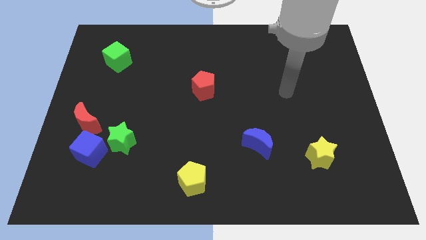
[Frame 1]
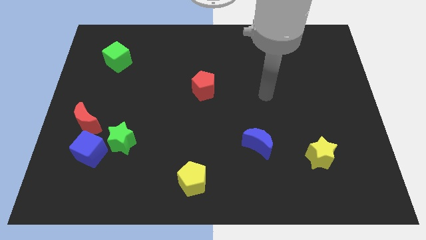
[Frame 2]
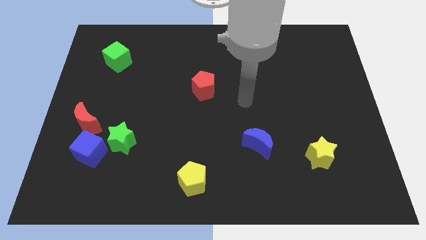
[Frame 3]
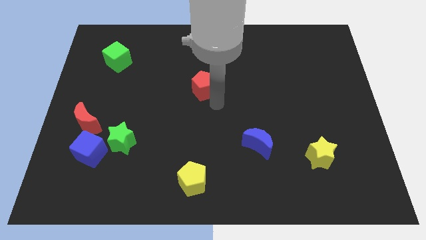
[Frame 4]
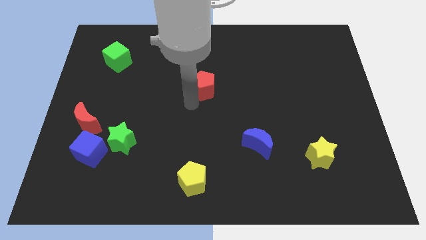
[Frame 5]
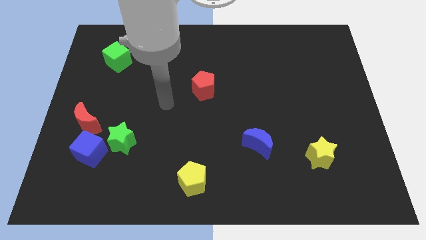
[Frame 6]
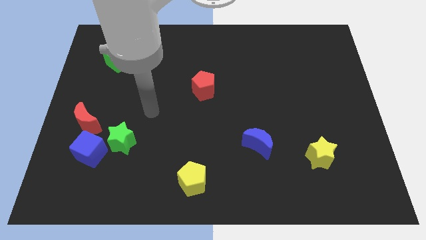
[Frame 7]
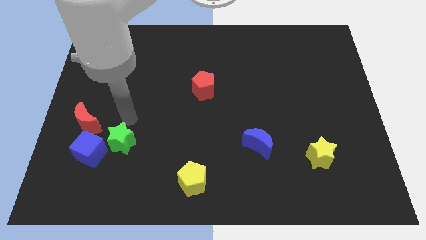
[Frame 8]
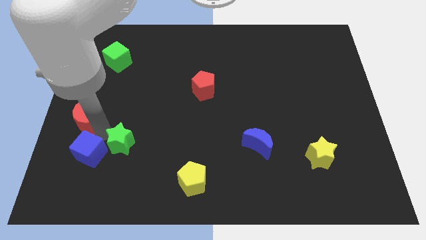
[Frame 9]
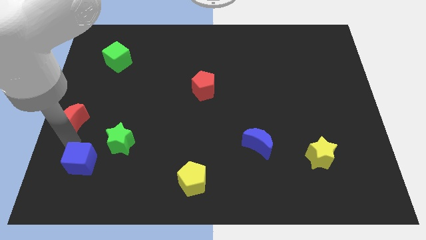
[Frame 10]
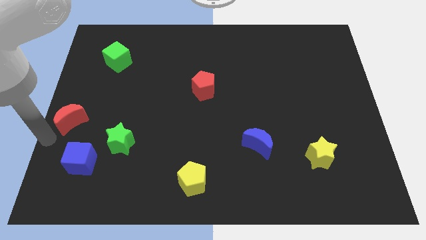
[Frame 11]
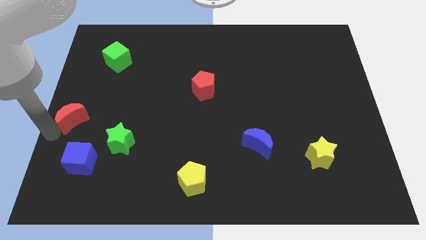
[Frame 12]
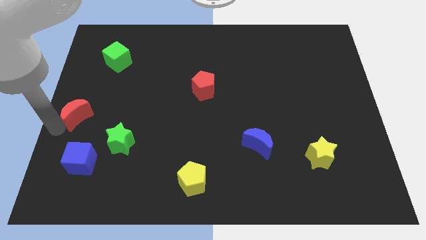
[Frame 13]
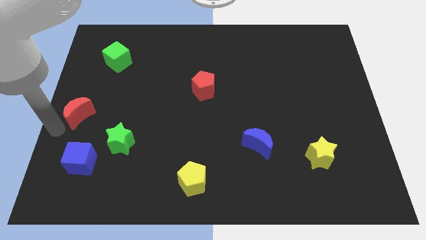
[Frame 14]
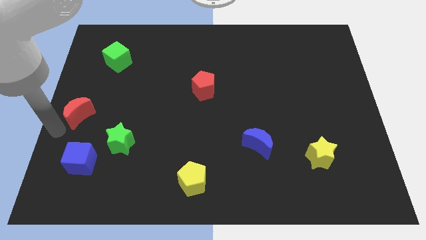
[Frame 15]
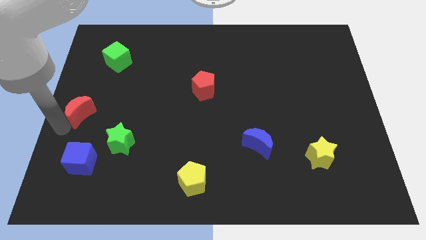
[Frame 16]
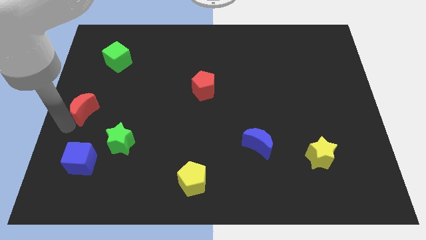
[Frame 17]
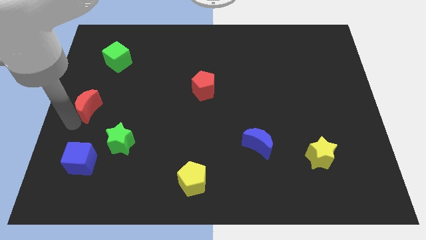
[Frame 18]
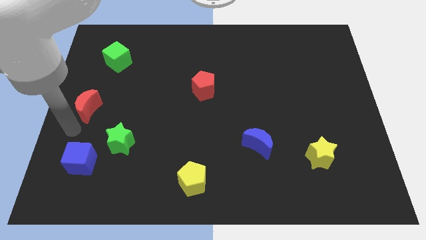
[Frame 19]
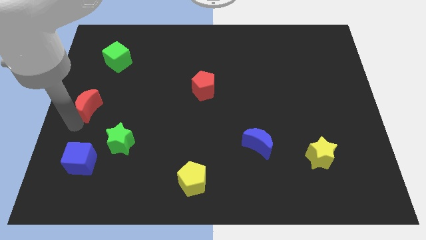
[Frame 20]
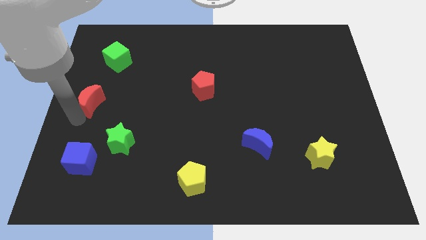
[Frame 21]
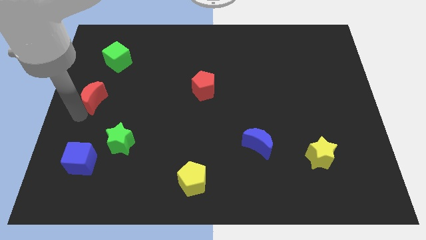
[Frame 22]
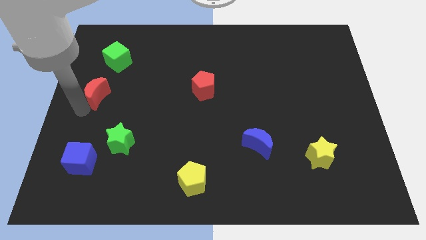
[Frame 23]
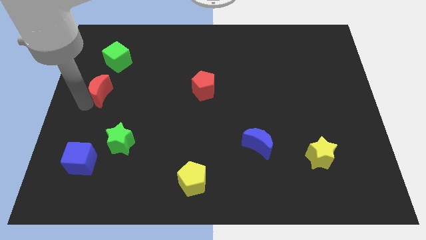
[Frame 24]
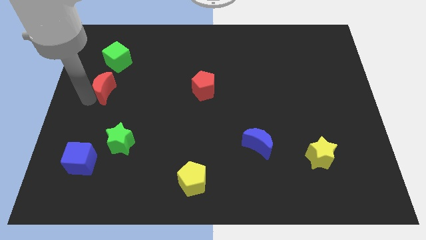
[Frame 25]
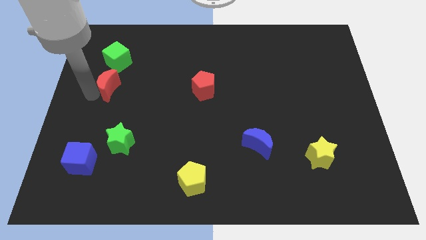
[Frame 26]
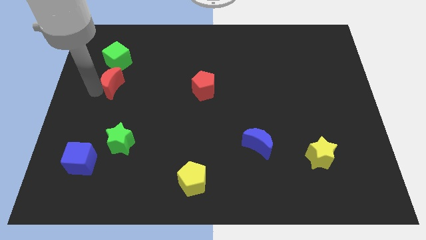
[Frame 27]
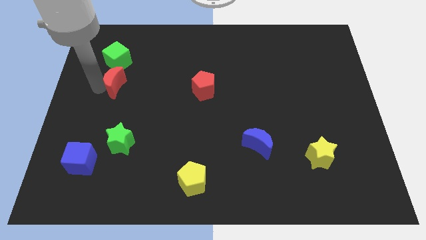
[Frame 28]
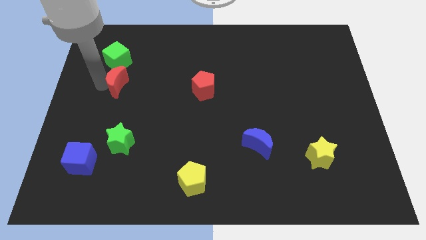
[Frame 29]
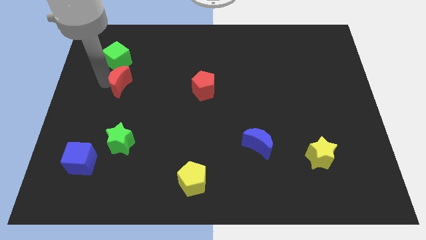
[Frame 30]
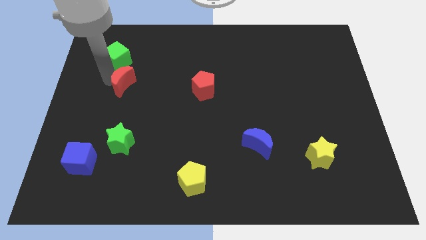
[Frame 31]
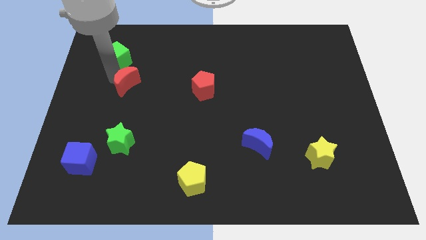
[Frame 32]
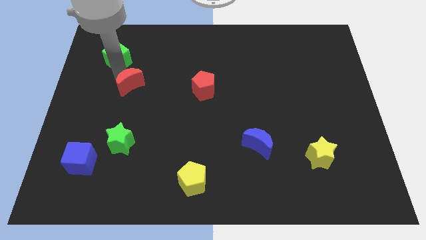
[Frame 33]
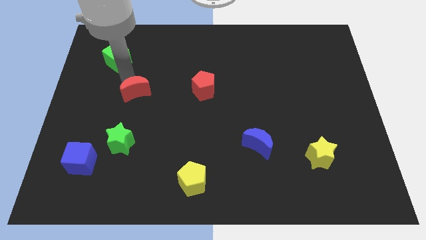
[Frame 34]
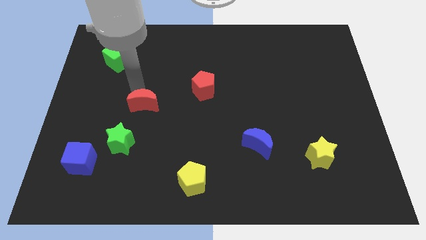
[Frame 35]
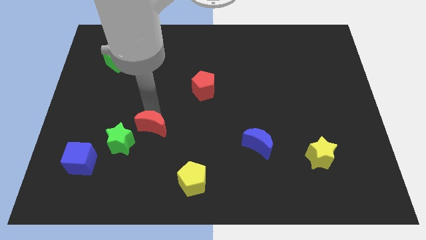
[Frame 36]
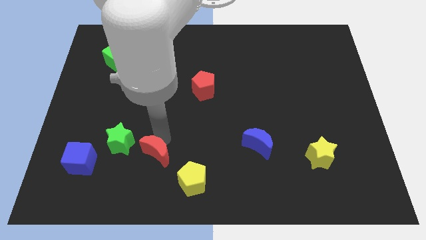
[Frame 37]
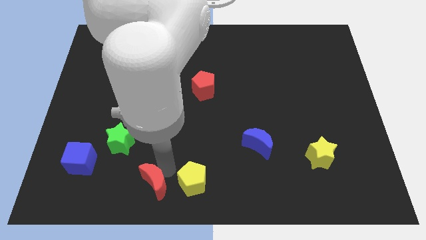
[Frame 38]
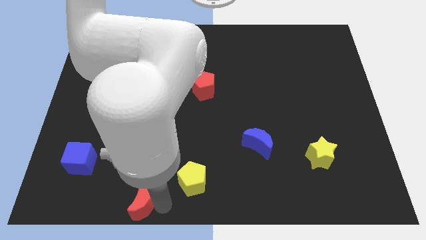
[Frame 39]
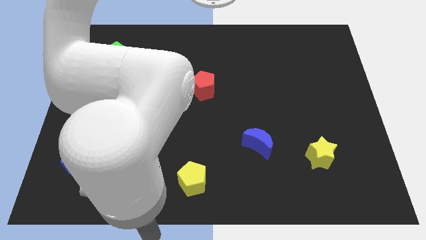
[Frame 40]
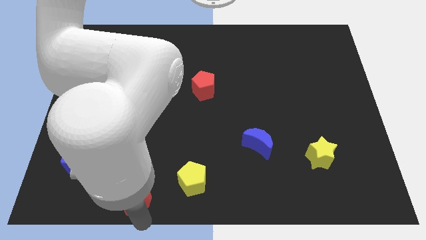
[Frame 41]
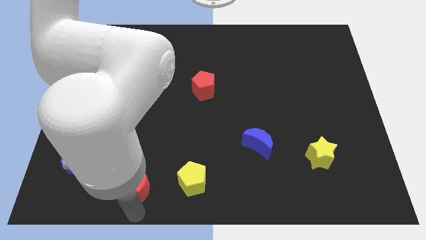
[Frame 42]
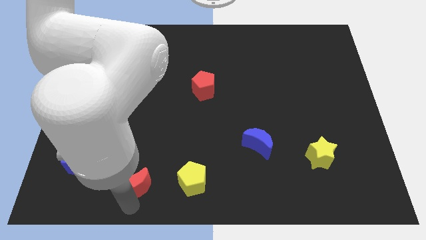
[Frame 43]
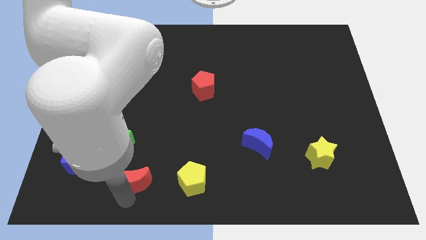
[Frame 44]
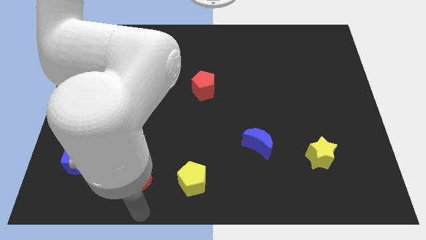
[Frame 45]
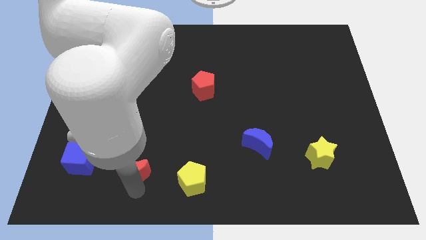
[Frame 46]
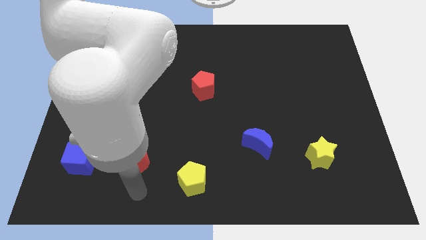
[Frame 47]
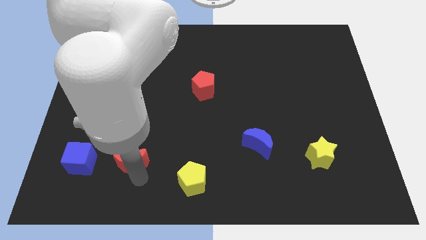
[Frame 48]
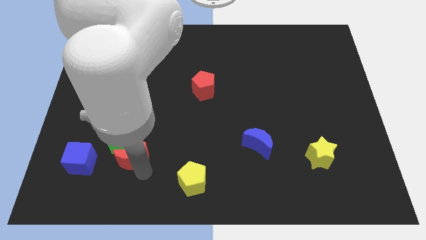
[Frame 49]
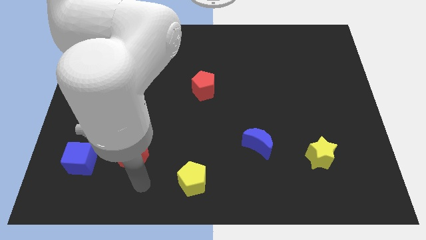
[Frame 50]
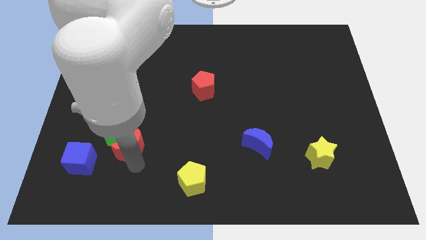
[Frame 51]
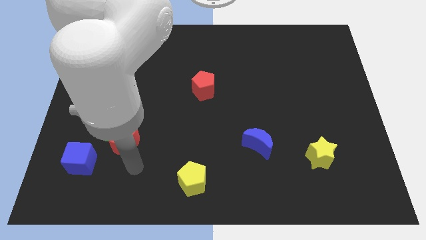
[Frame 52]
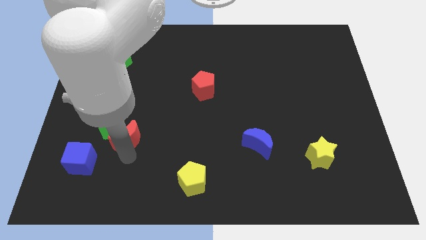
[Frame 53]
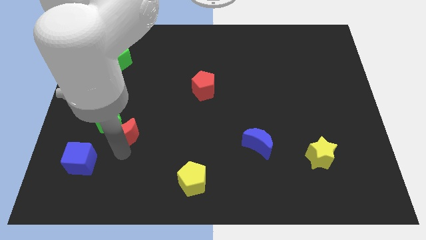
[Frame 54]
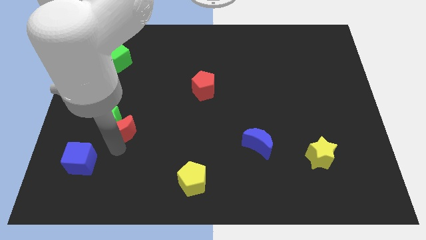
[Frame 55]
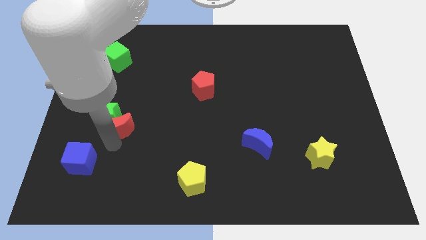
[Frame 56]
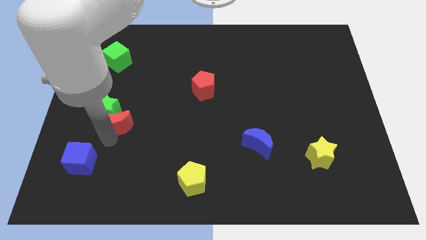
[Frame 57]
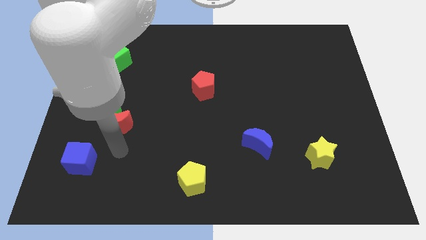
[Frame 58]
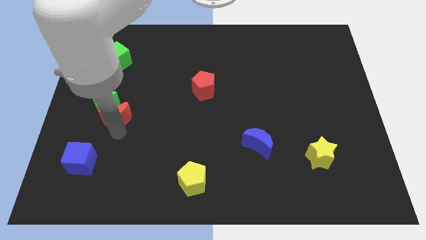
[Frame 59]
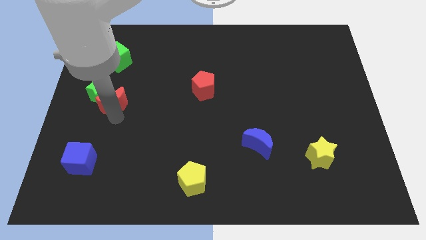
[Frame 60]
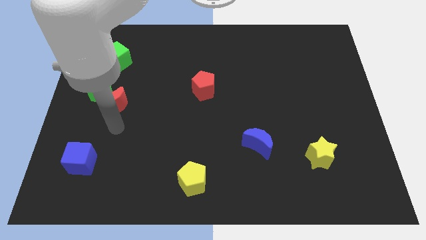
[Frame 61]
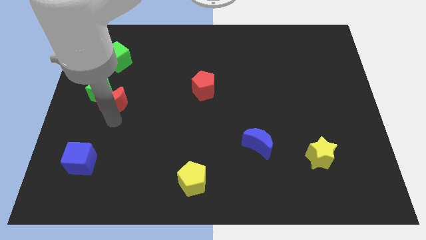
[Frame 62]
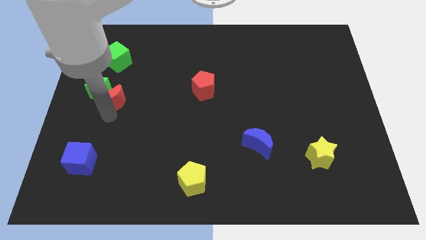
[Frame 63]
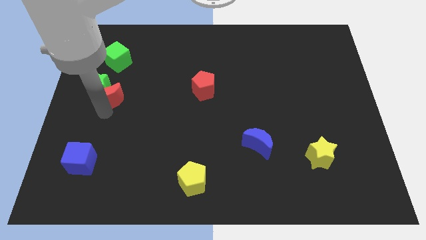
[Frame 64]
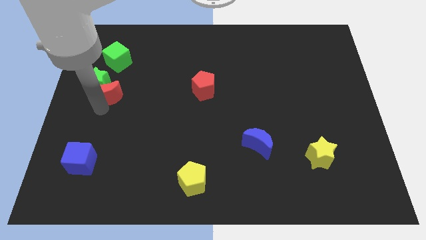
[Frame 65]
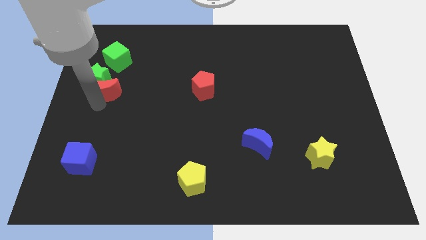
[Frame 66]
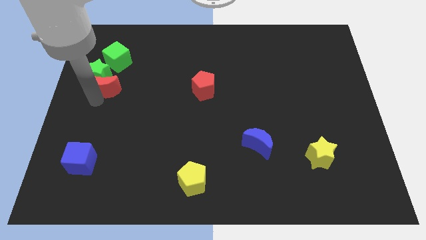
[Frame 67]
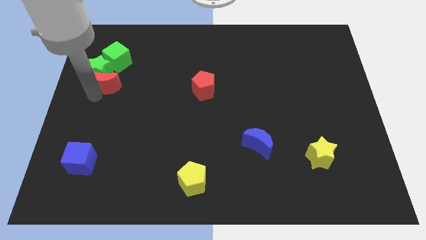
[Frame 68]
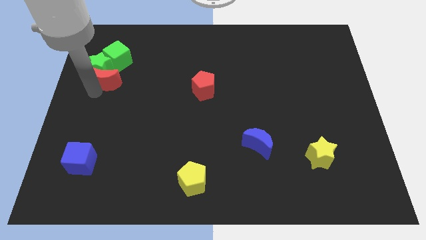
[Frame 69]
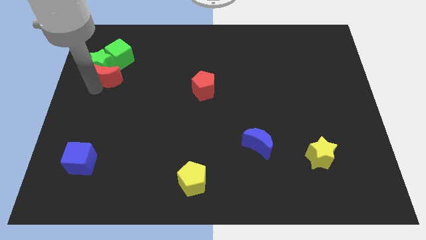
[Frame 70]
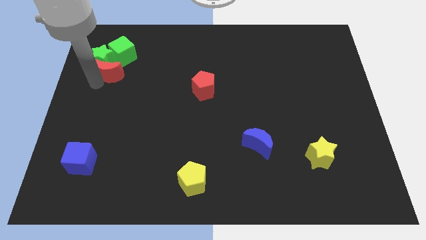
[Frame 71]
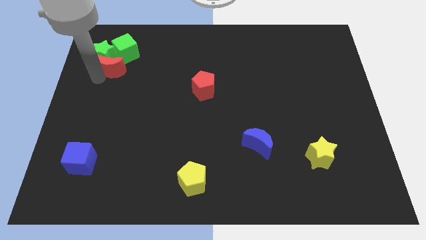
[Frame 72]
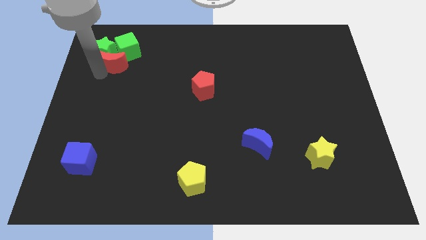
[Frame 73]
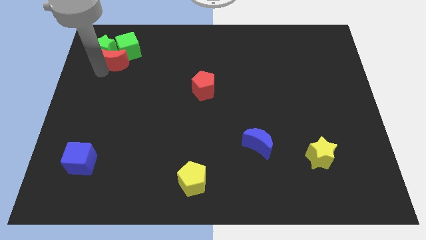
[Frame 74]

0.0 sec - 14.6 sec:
put the red moon close to the green cube

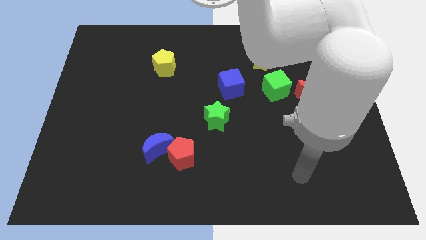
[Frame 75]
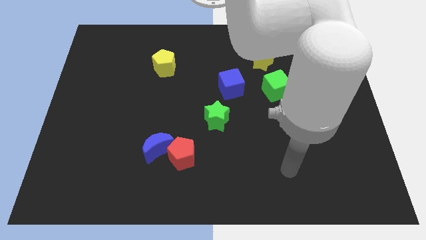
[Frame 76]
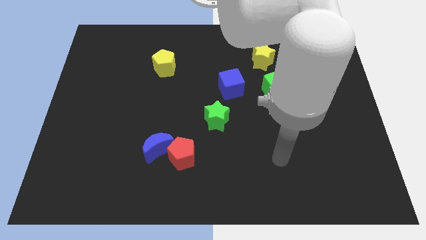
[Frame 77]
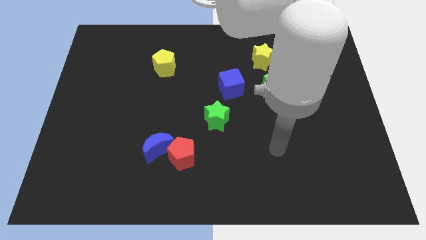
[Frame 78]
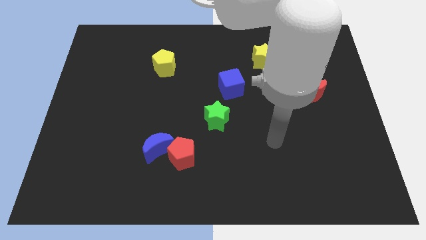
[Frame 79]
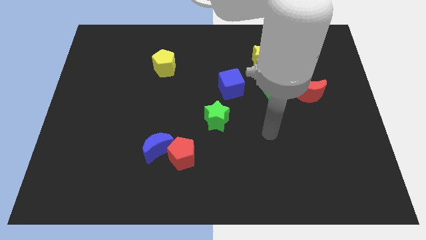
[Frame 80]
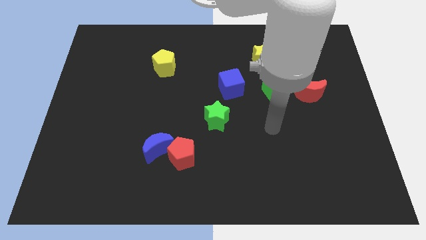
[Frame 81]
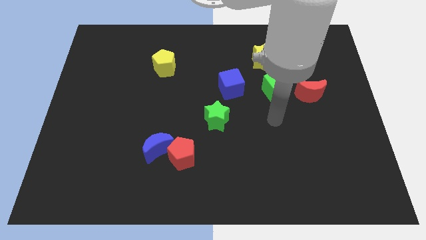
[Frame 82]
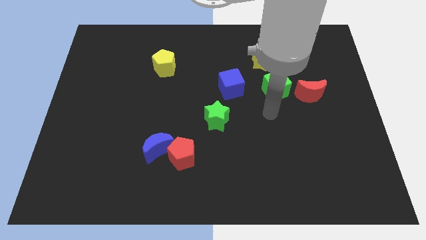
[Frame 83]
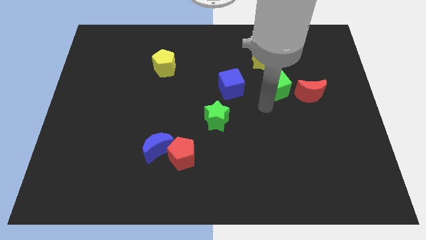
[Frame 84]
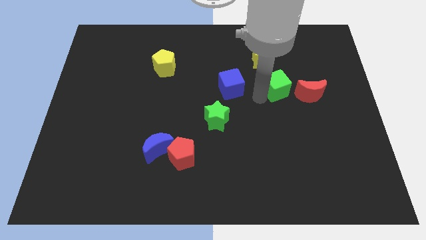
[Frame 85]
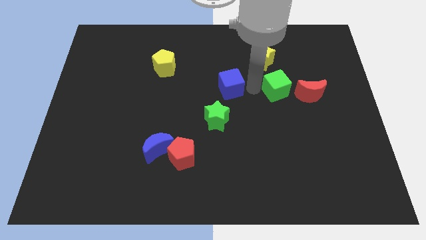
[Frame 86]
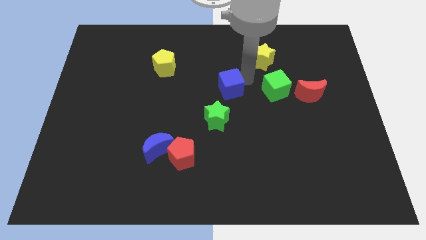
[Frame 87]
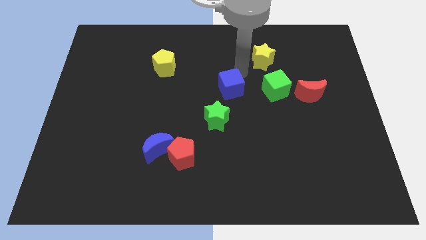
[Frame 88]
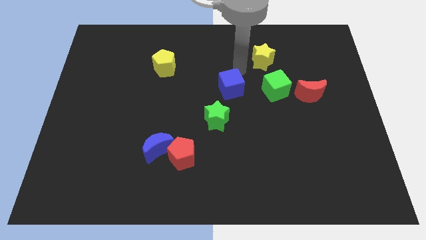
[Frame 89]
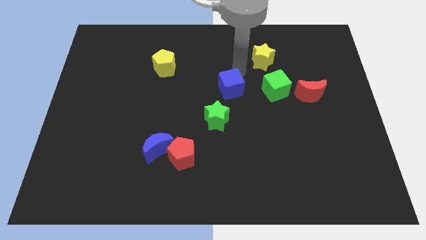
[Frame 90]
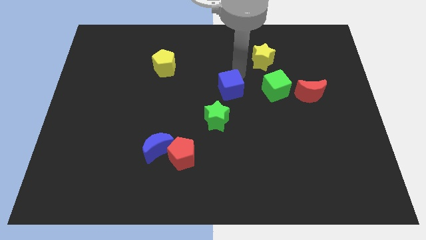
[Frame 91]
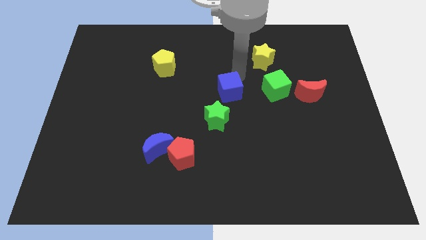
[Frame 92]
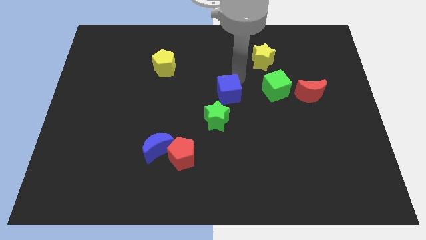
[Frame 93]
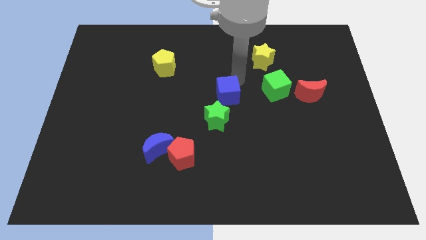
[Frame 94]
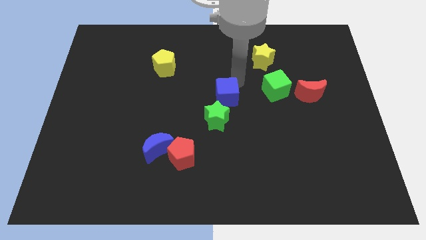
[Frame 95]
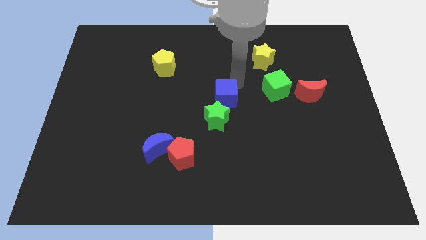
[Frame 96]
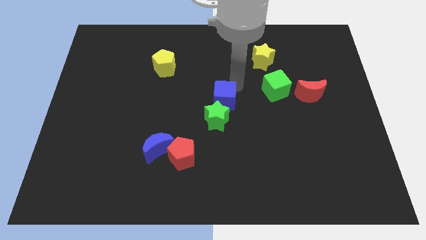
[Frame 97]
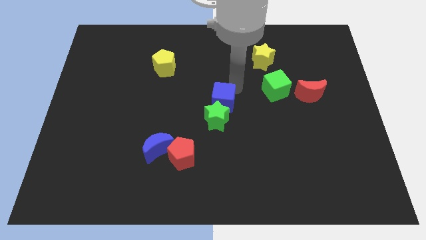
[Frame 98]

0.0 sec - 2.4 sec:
put the blue cube close to the green star
